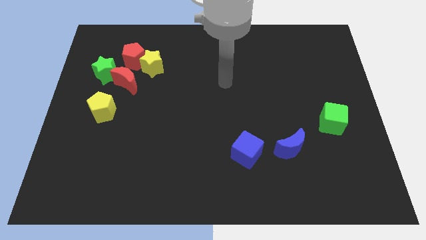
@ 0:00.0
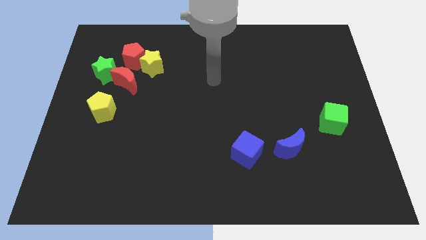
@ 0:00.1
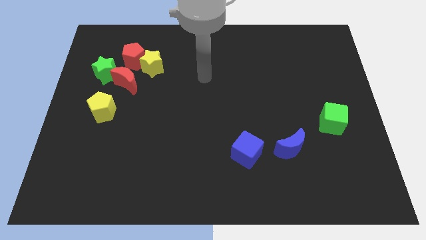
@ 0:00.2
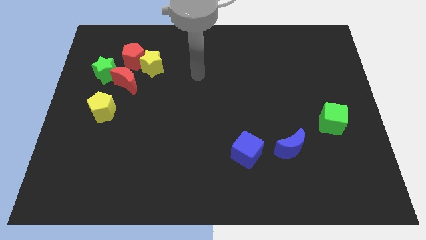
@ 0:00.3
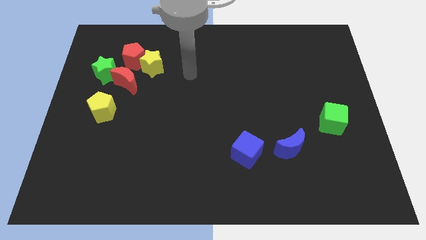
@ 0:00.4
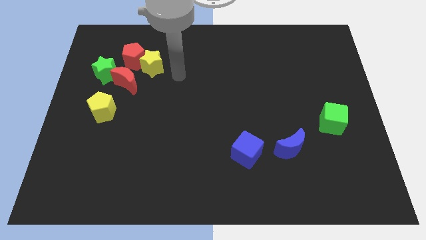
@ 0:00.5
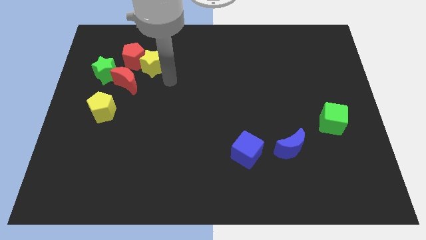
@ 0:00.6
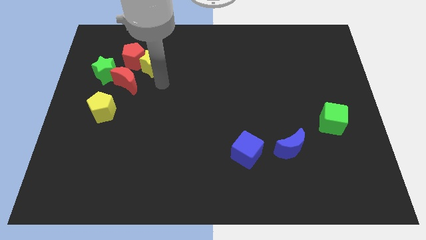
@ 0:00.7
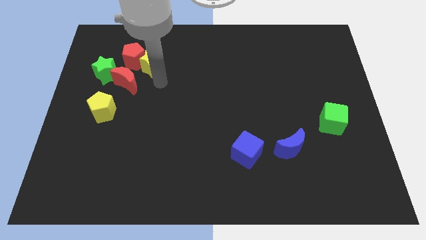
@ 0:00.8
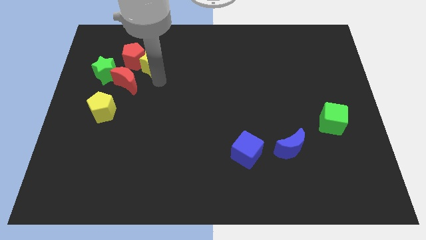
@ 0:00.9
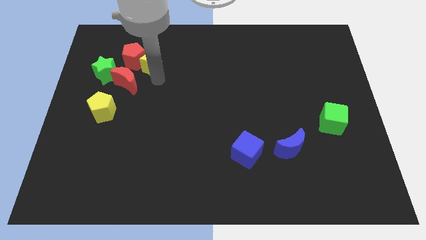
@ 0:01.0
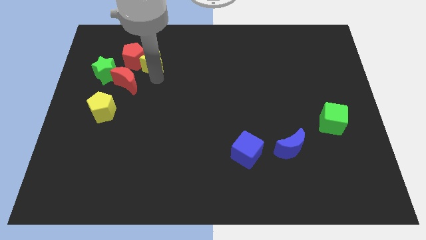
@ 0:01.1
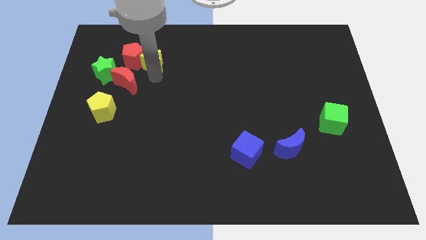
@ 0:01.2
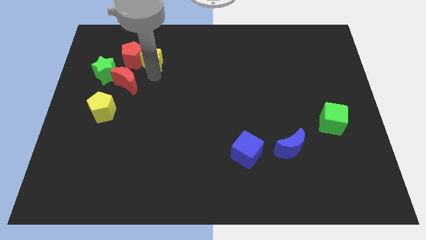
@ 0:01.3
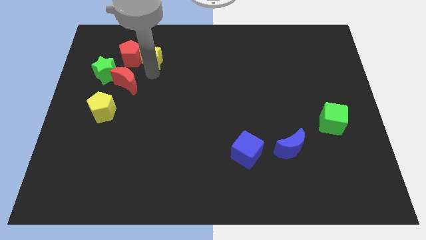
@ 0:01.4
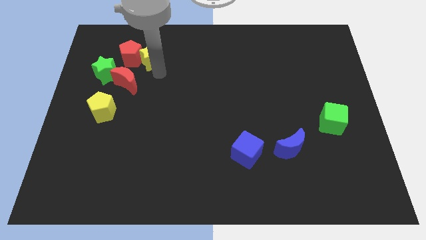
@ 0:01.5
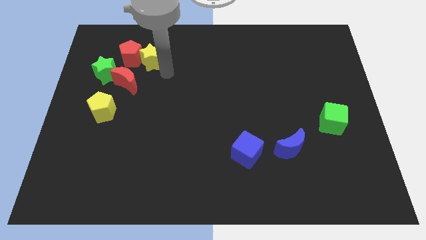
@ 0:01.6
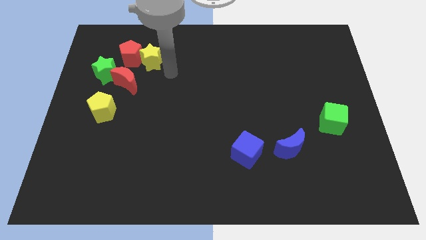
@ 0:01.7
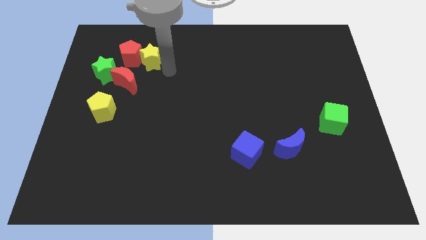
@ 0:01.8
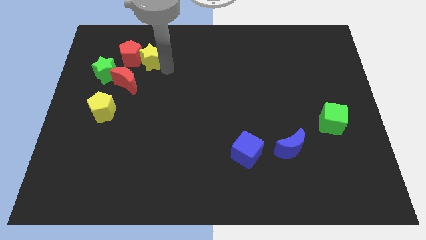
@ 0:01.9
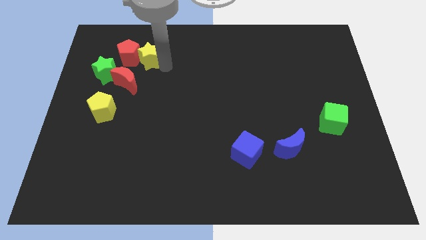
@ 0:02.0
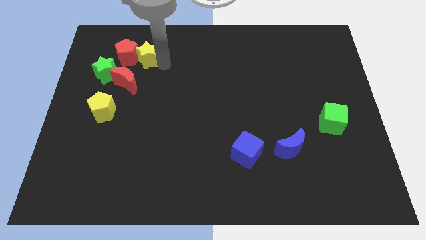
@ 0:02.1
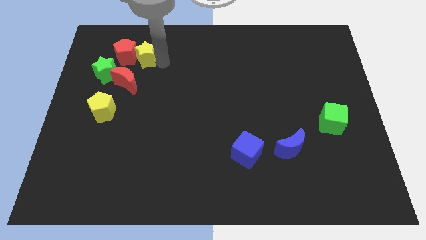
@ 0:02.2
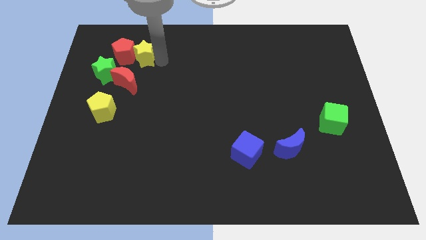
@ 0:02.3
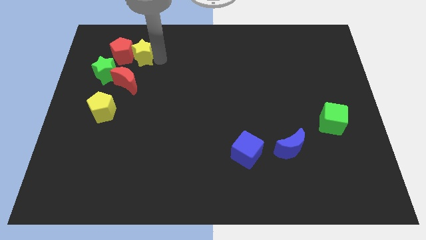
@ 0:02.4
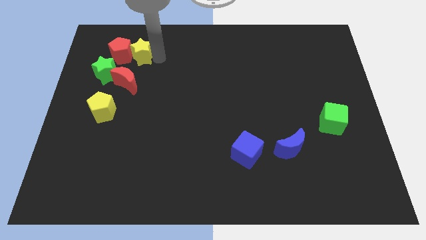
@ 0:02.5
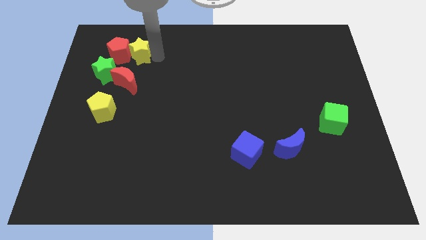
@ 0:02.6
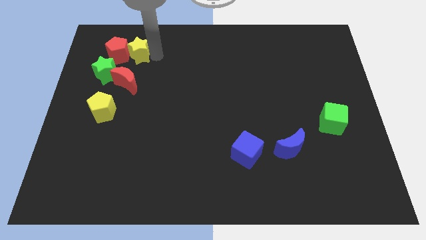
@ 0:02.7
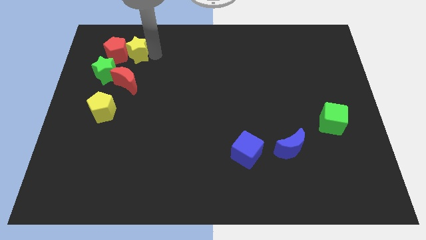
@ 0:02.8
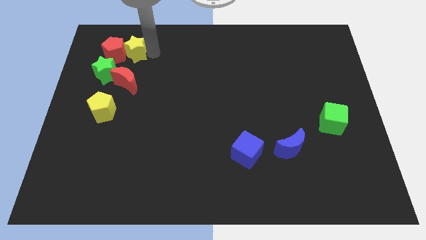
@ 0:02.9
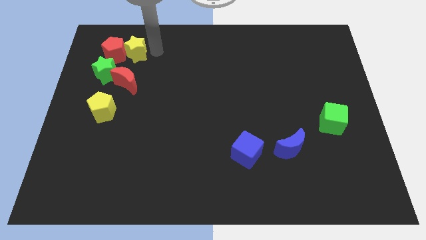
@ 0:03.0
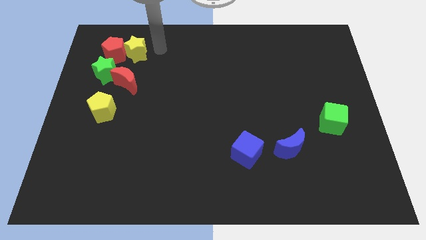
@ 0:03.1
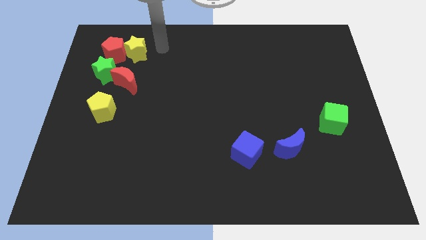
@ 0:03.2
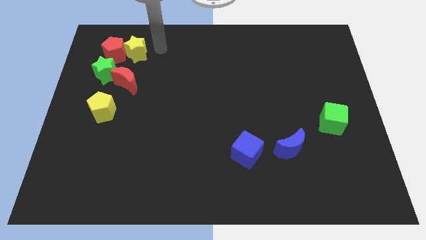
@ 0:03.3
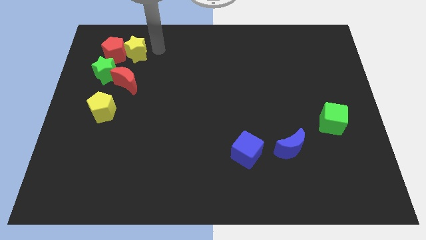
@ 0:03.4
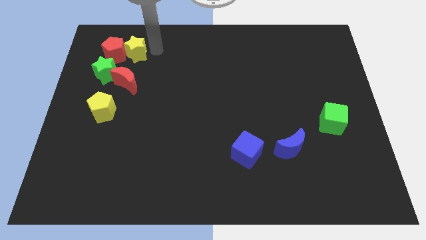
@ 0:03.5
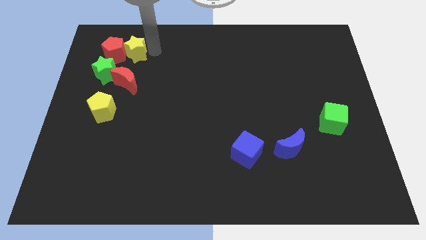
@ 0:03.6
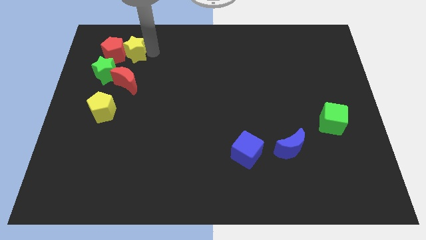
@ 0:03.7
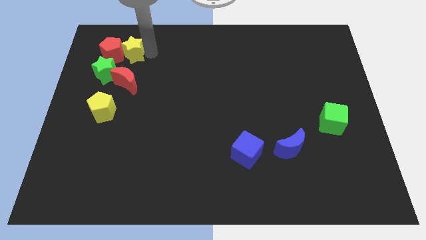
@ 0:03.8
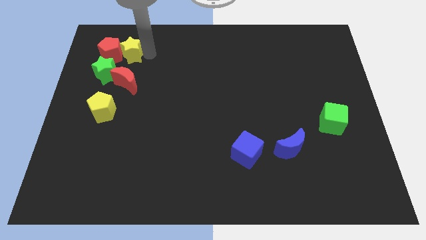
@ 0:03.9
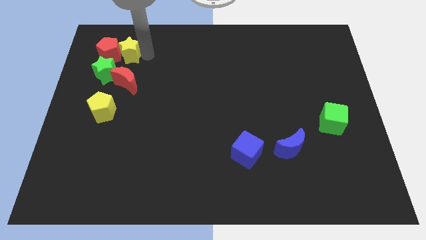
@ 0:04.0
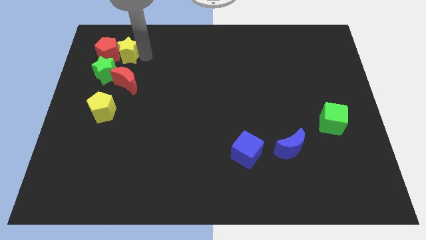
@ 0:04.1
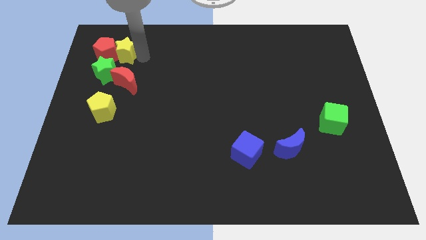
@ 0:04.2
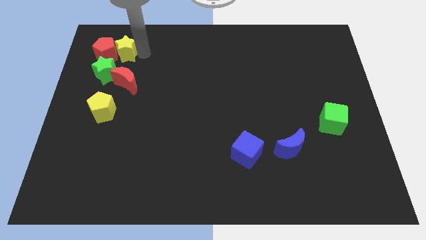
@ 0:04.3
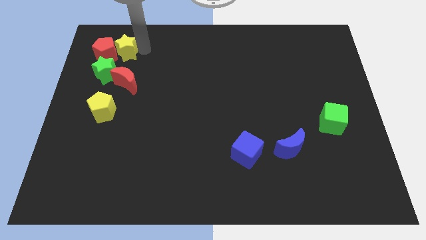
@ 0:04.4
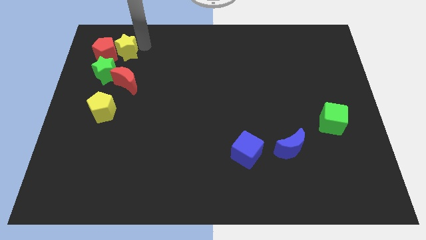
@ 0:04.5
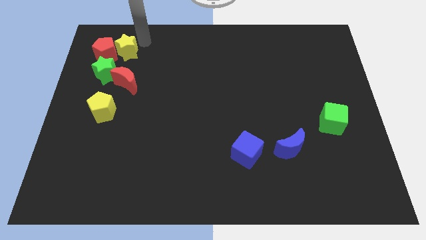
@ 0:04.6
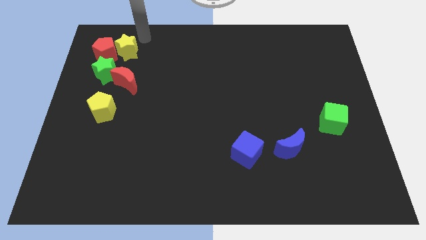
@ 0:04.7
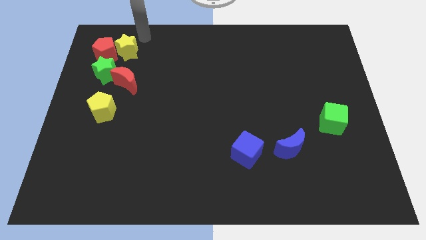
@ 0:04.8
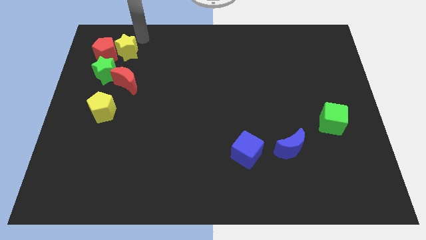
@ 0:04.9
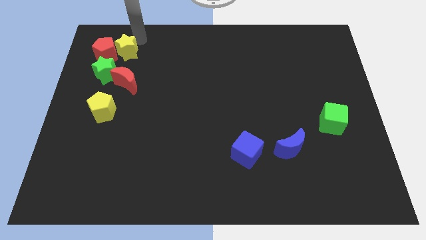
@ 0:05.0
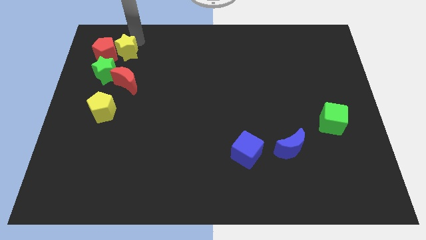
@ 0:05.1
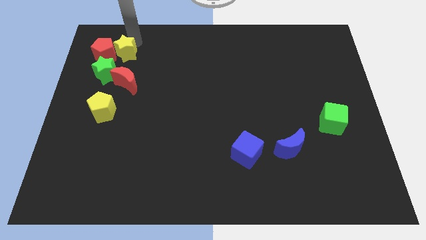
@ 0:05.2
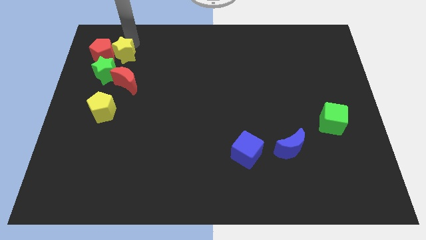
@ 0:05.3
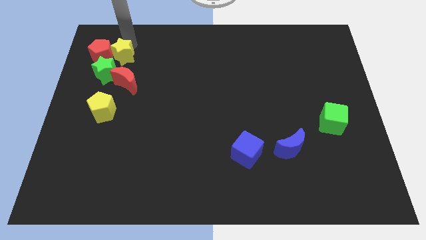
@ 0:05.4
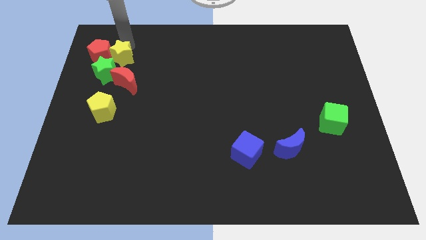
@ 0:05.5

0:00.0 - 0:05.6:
move the yellow star to the top left of the red moon
